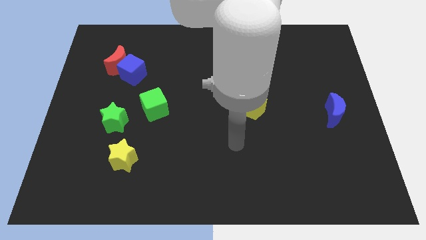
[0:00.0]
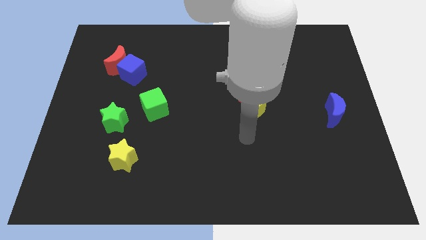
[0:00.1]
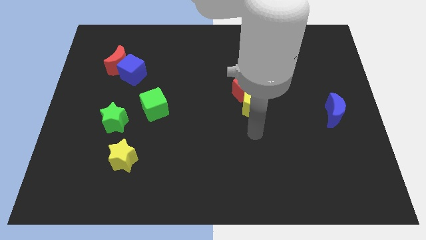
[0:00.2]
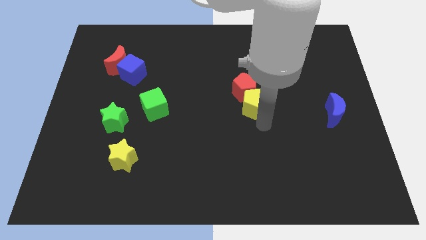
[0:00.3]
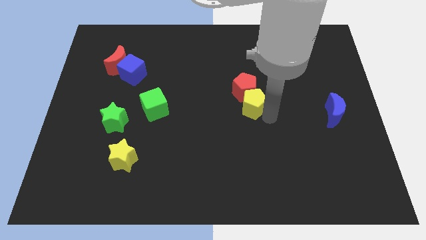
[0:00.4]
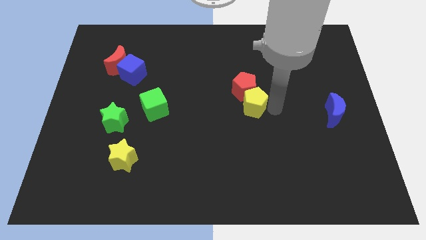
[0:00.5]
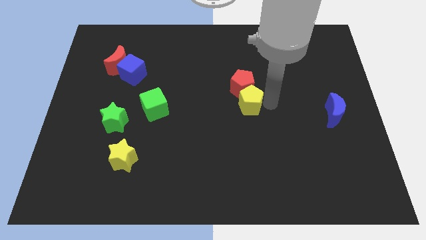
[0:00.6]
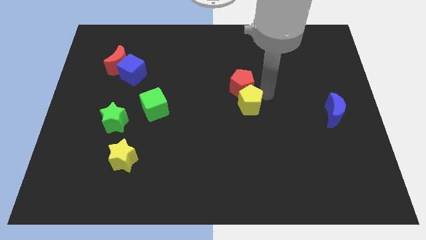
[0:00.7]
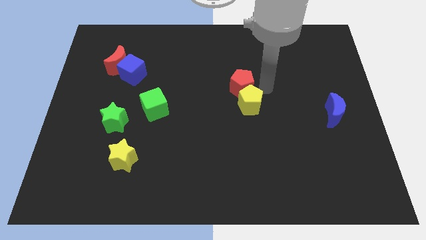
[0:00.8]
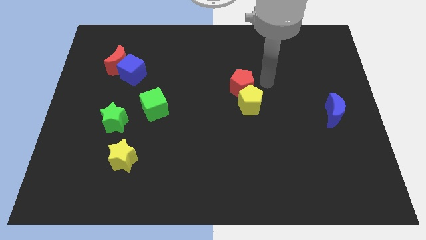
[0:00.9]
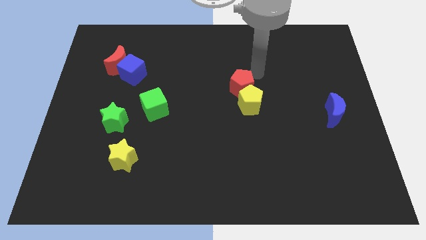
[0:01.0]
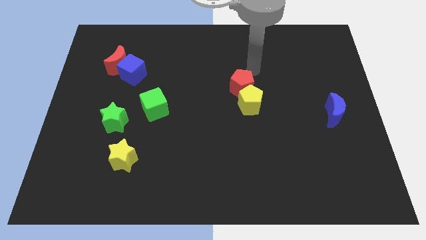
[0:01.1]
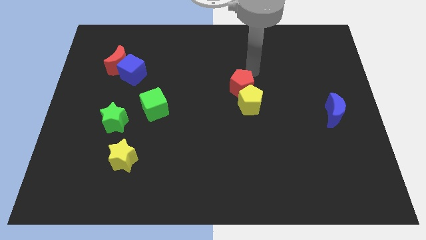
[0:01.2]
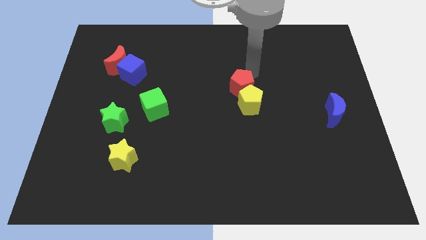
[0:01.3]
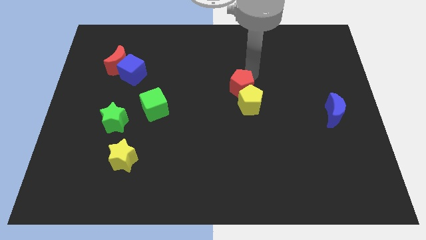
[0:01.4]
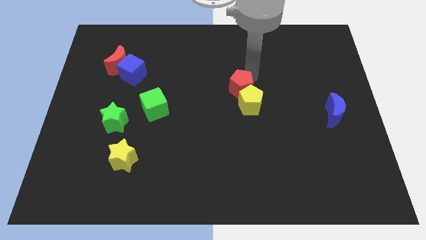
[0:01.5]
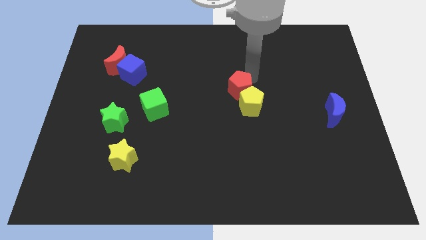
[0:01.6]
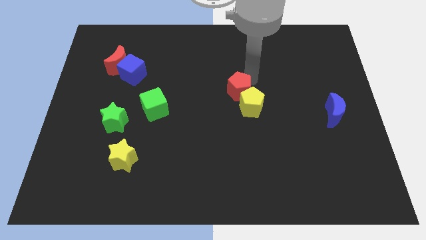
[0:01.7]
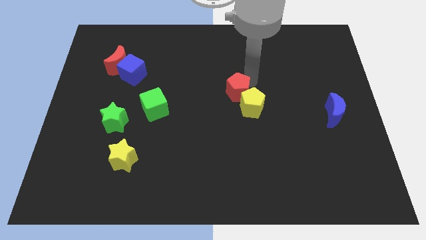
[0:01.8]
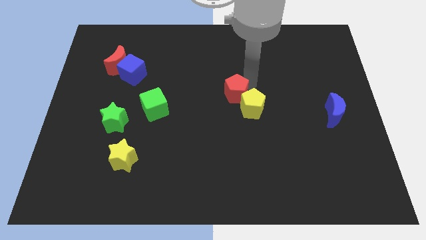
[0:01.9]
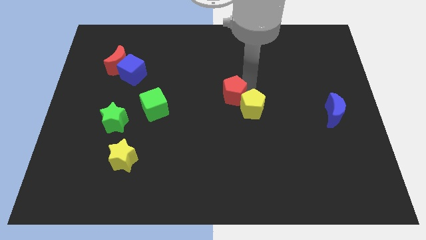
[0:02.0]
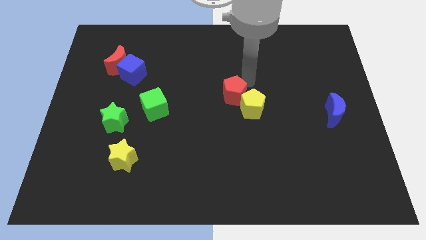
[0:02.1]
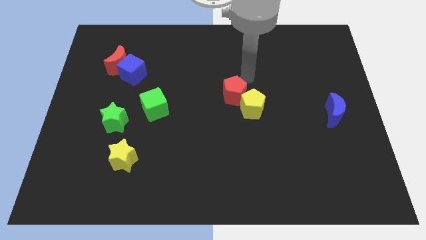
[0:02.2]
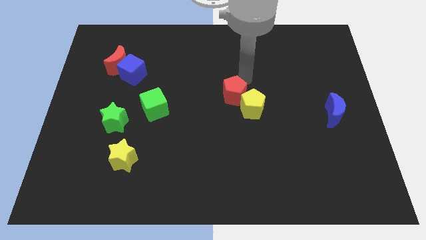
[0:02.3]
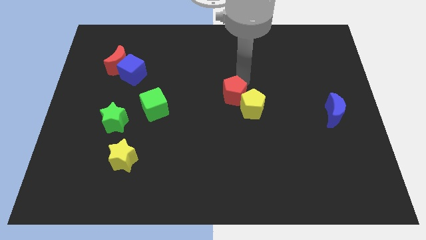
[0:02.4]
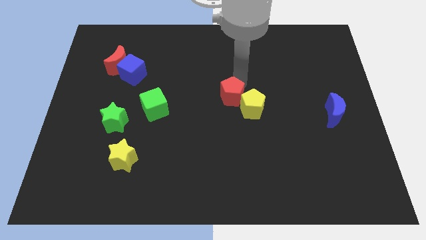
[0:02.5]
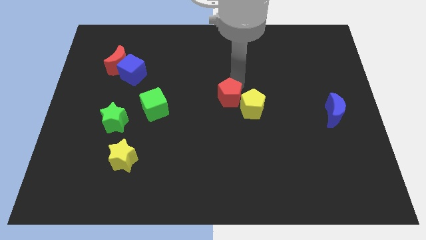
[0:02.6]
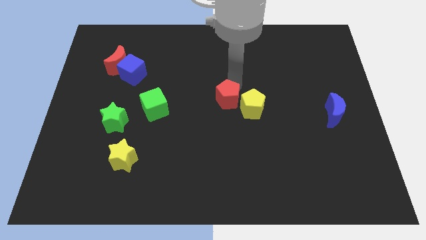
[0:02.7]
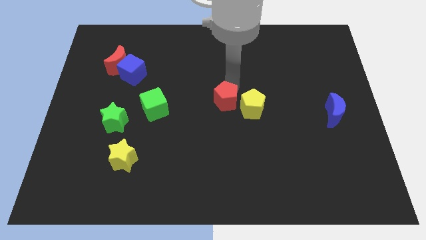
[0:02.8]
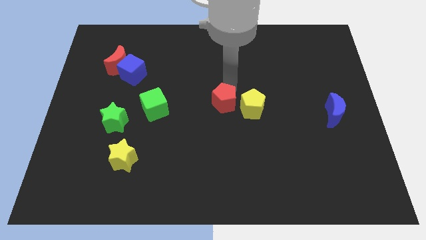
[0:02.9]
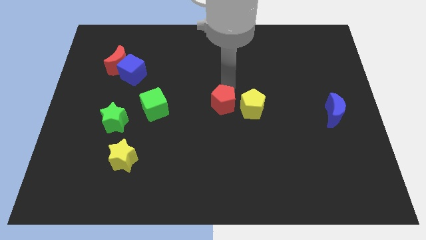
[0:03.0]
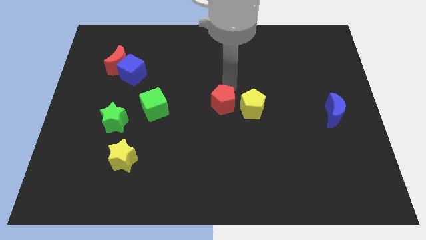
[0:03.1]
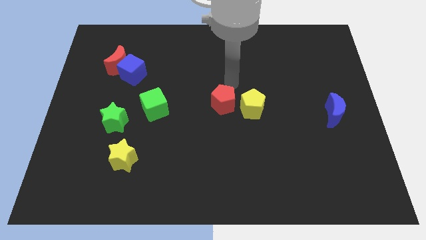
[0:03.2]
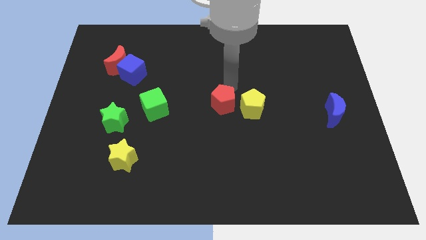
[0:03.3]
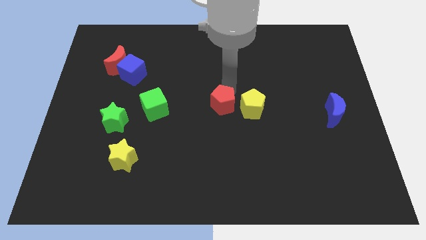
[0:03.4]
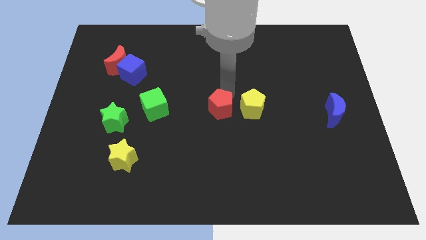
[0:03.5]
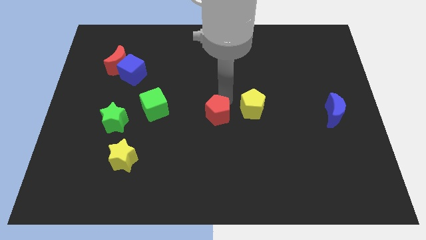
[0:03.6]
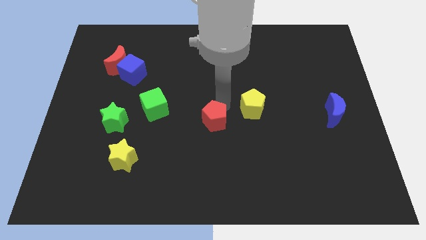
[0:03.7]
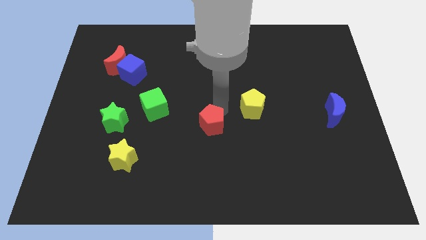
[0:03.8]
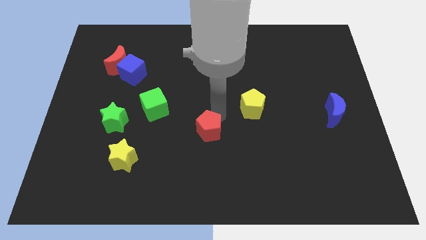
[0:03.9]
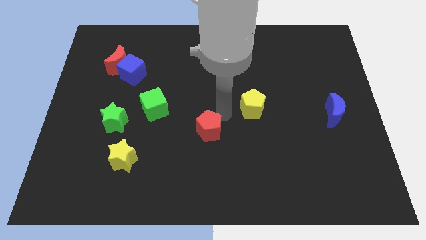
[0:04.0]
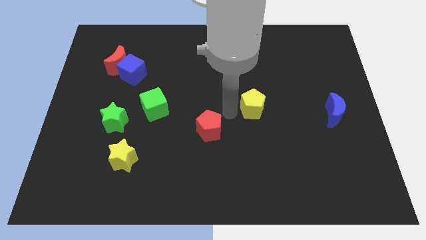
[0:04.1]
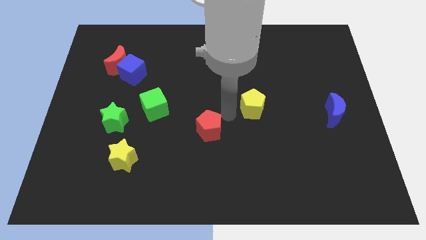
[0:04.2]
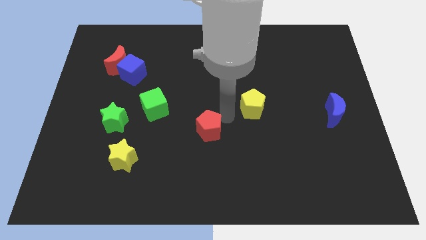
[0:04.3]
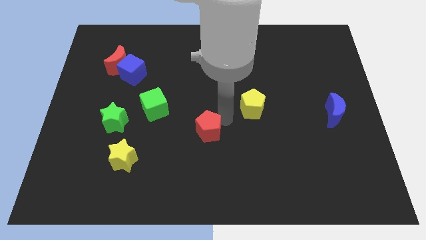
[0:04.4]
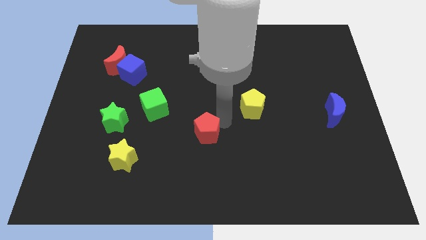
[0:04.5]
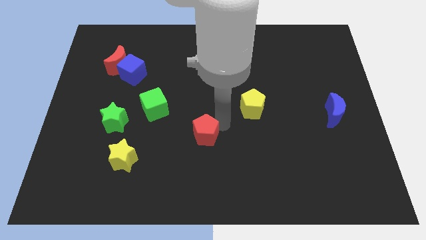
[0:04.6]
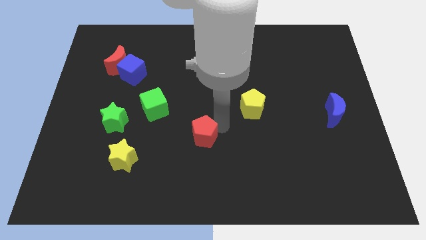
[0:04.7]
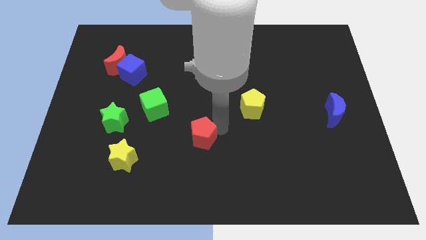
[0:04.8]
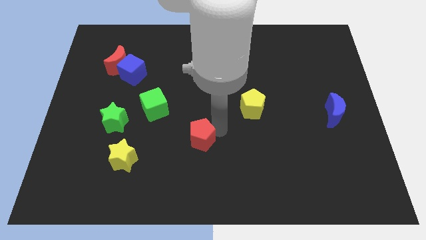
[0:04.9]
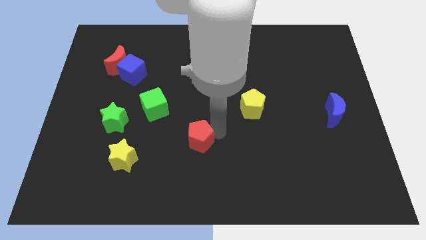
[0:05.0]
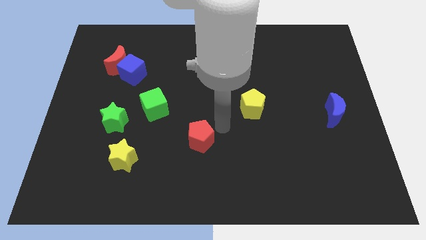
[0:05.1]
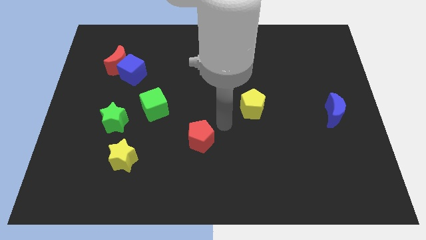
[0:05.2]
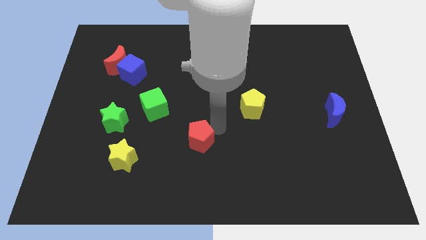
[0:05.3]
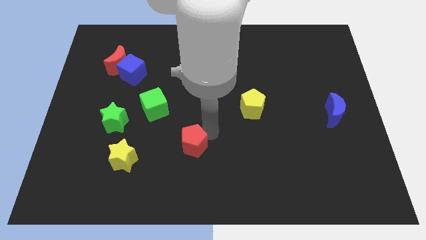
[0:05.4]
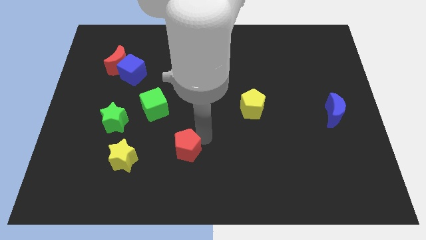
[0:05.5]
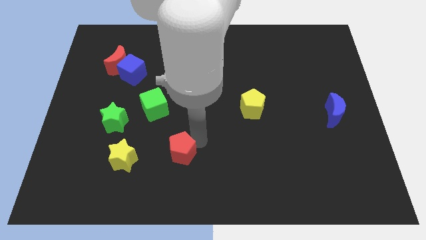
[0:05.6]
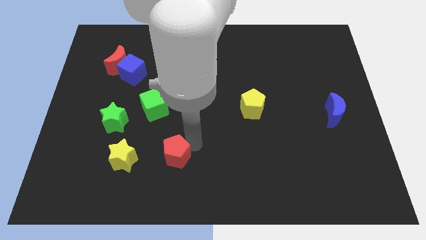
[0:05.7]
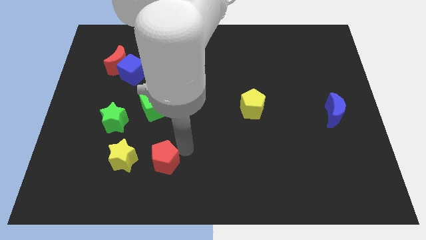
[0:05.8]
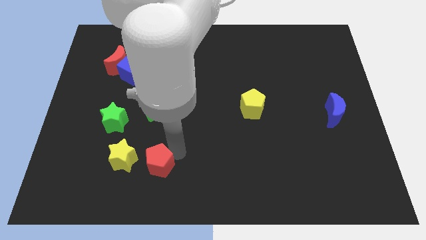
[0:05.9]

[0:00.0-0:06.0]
put the red pentagon diagonally down and to the right of the yellow star
